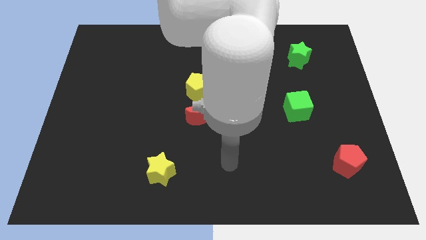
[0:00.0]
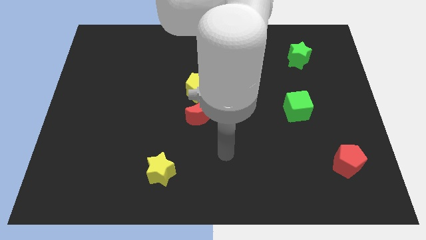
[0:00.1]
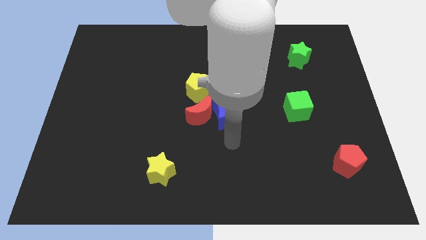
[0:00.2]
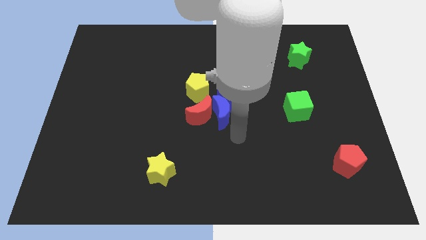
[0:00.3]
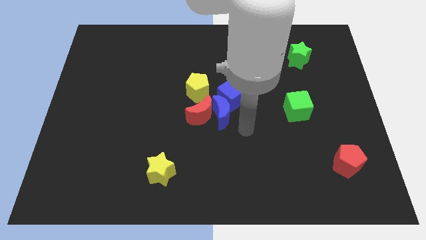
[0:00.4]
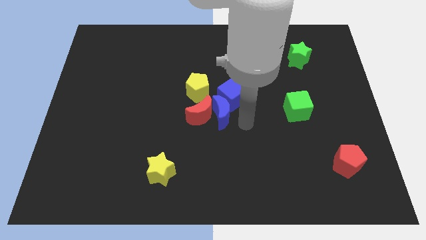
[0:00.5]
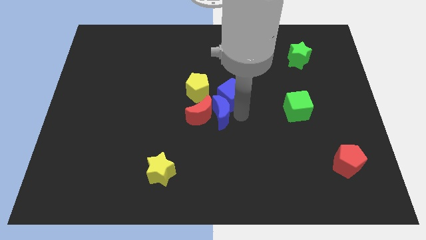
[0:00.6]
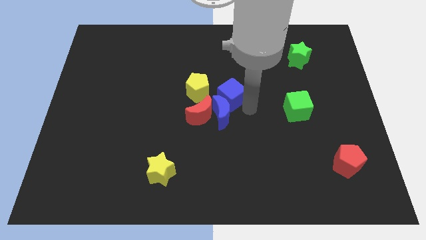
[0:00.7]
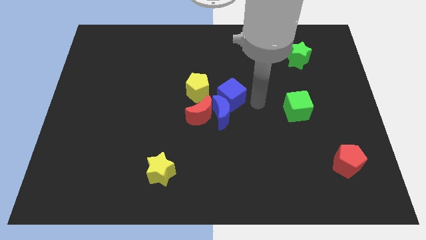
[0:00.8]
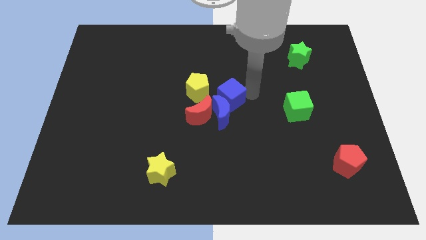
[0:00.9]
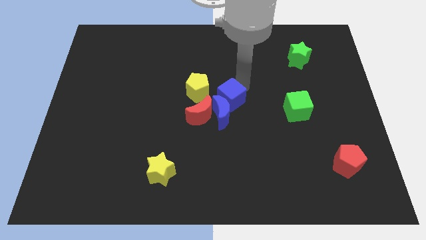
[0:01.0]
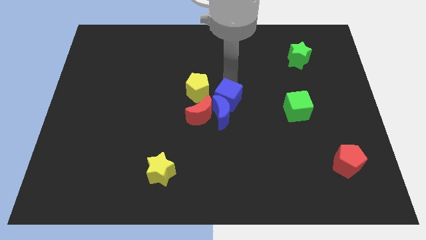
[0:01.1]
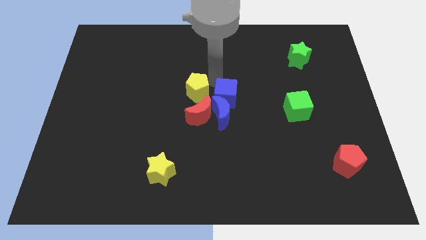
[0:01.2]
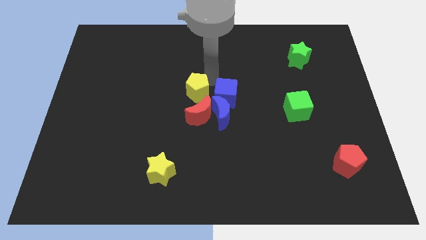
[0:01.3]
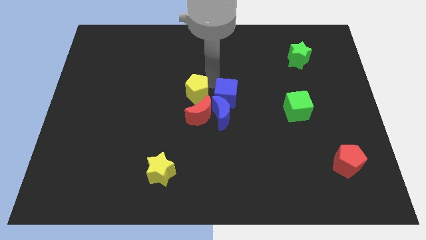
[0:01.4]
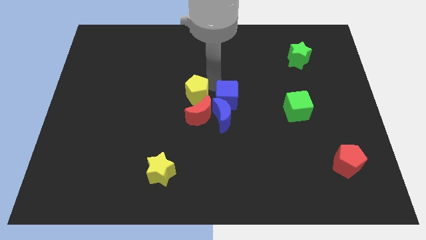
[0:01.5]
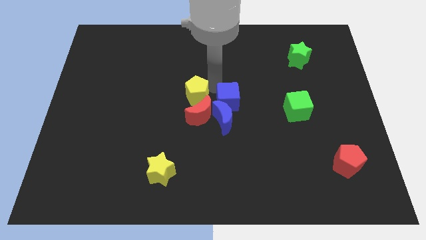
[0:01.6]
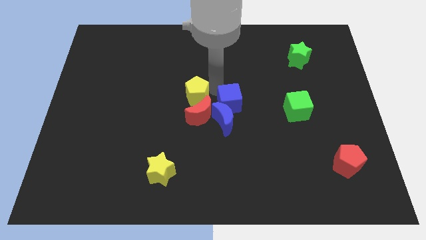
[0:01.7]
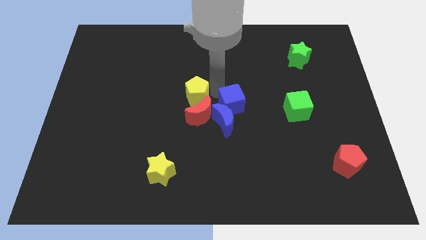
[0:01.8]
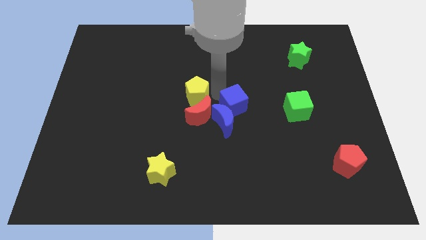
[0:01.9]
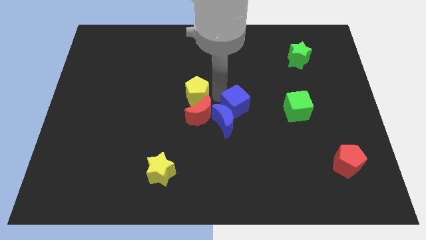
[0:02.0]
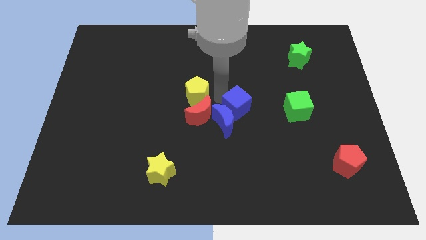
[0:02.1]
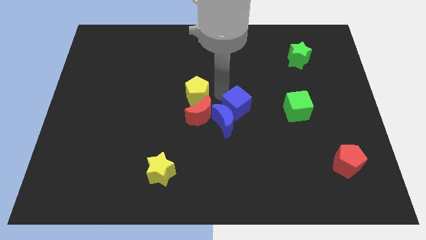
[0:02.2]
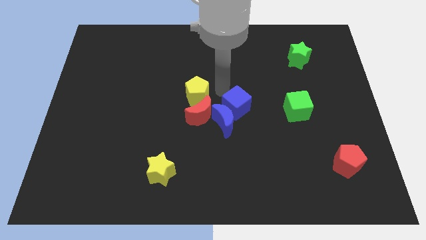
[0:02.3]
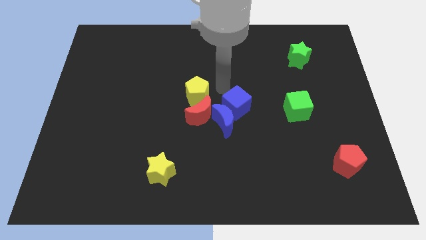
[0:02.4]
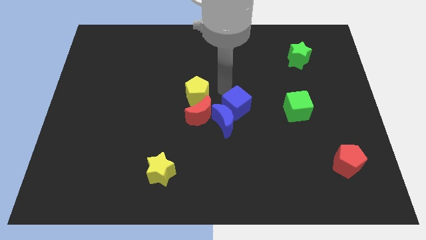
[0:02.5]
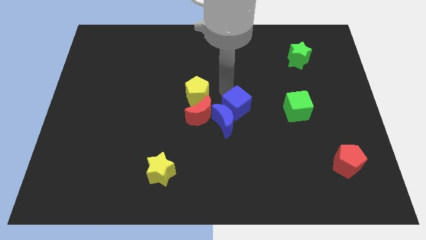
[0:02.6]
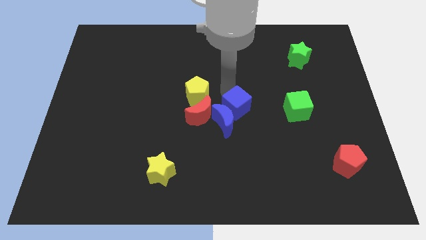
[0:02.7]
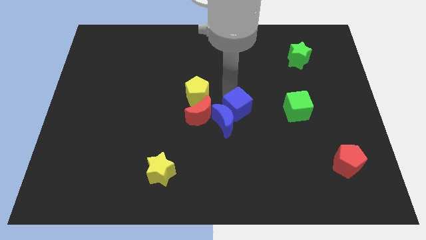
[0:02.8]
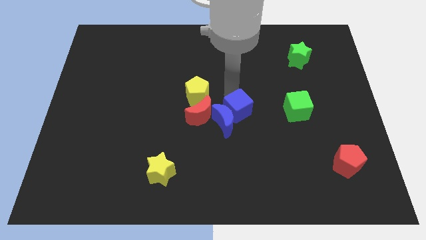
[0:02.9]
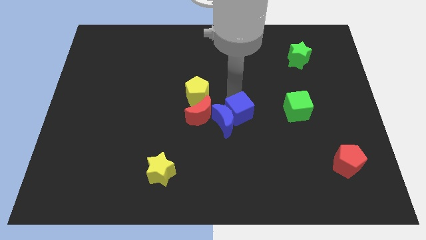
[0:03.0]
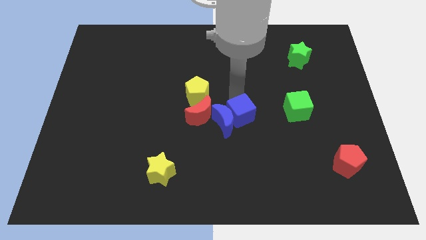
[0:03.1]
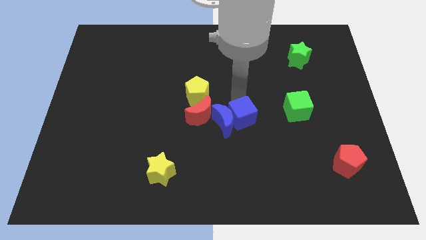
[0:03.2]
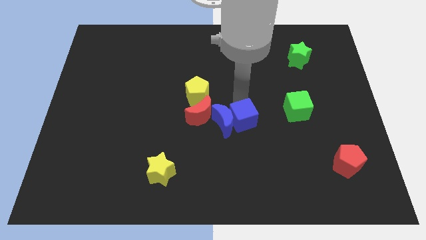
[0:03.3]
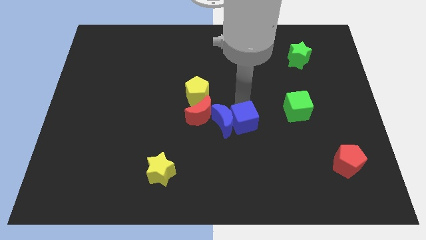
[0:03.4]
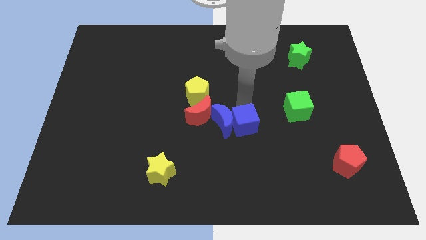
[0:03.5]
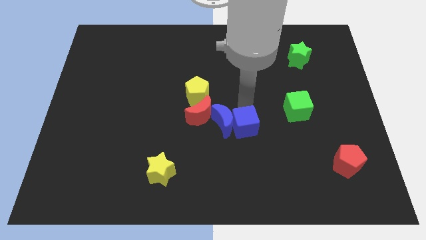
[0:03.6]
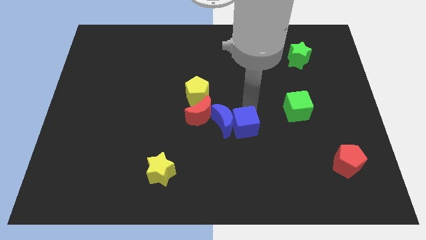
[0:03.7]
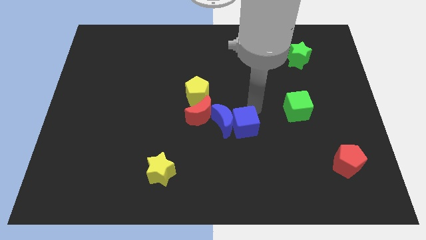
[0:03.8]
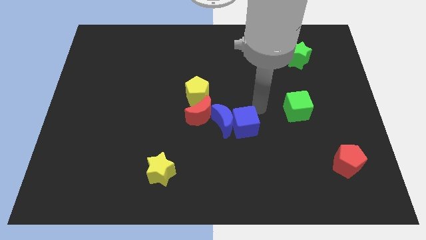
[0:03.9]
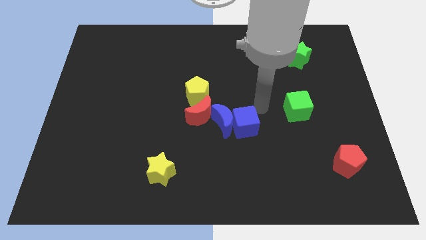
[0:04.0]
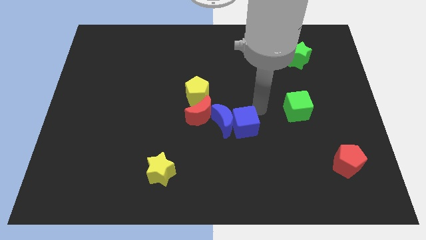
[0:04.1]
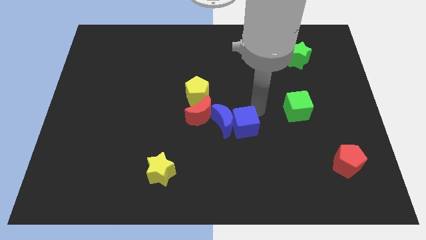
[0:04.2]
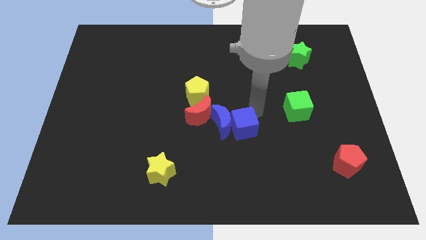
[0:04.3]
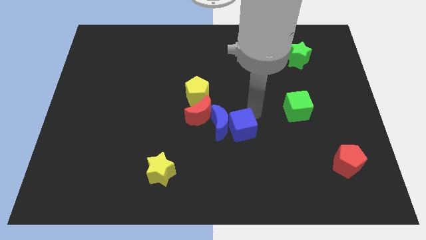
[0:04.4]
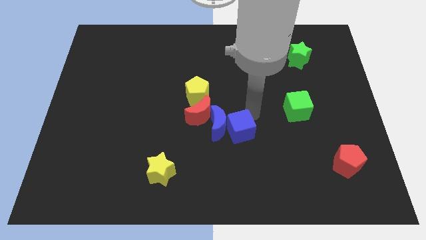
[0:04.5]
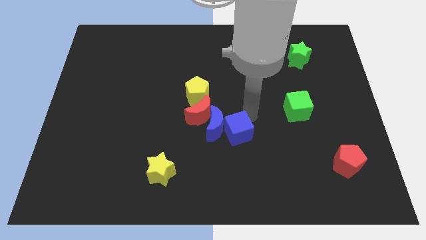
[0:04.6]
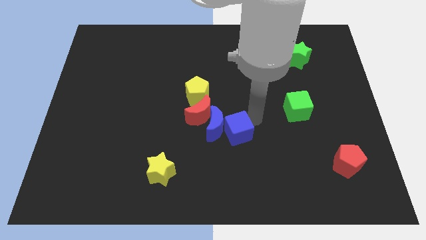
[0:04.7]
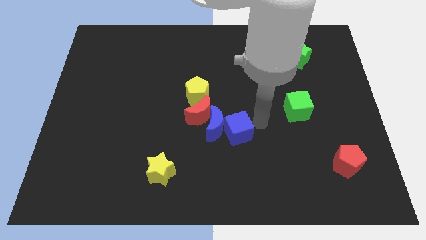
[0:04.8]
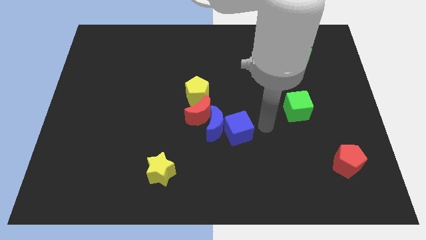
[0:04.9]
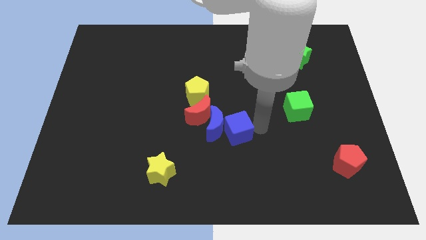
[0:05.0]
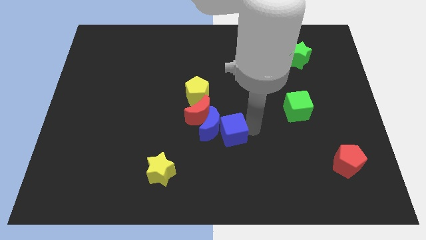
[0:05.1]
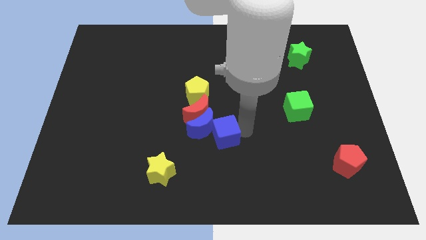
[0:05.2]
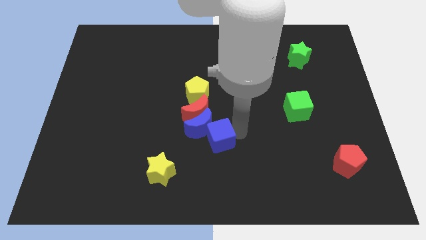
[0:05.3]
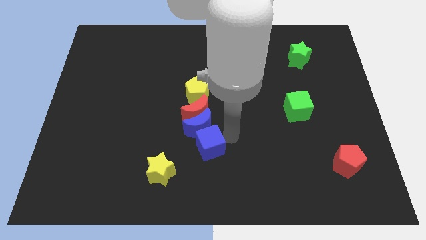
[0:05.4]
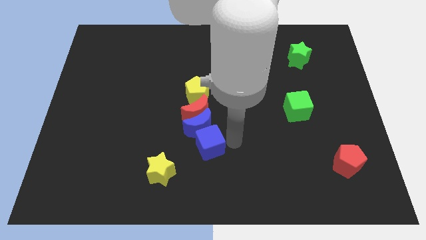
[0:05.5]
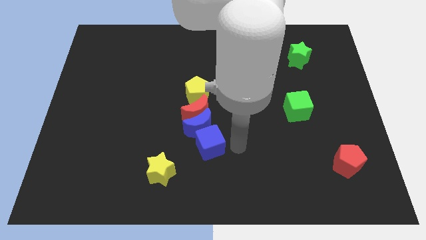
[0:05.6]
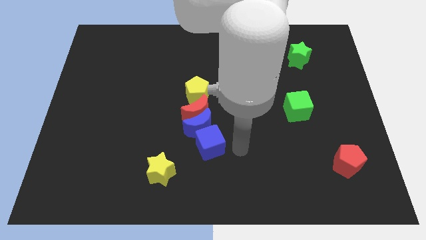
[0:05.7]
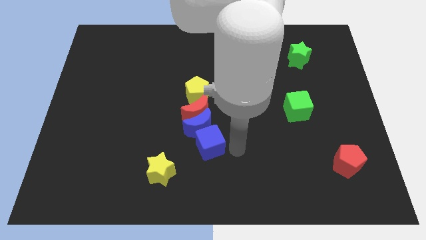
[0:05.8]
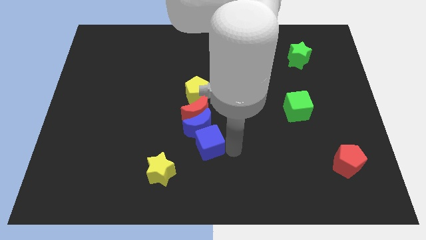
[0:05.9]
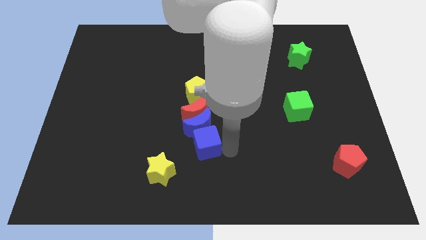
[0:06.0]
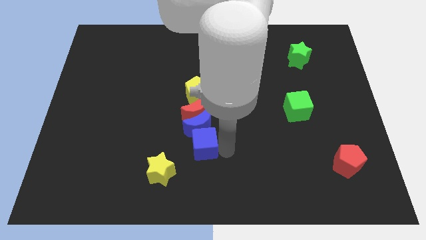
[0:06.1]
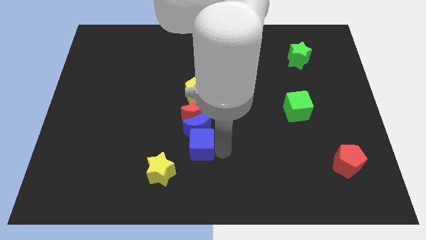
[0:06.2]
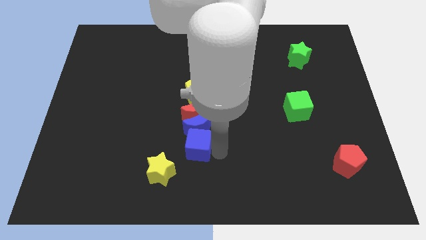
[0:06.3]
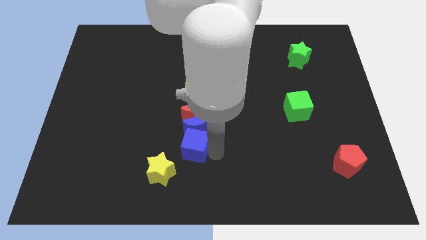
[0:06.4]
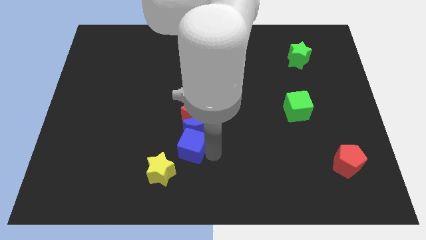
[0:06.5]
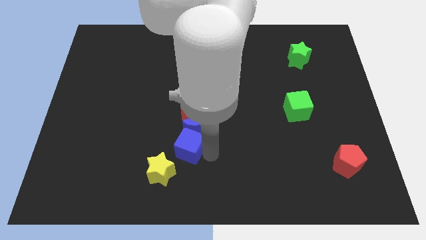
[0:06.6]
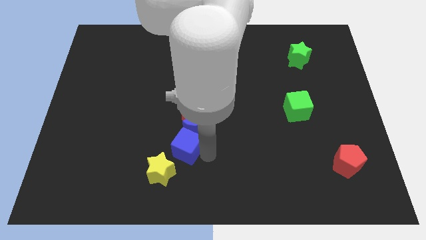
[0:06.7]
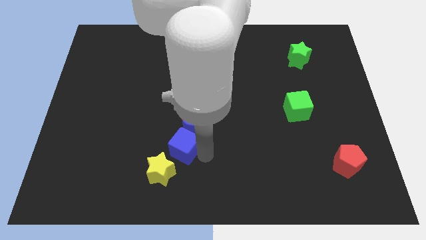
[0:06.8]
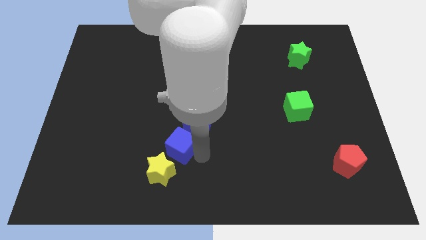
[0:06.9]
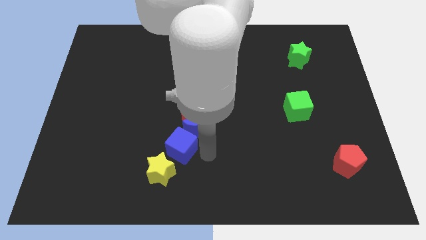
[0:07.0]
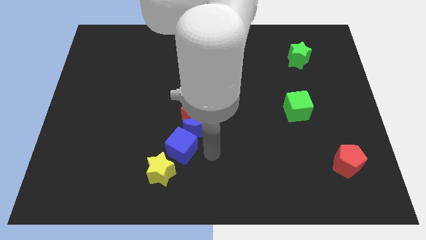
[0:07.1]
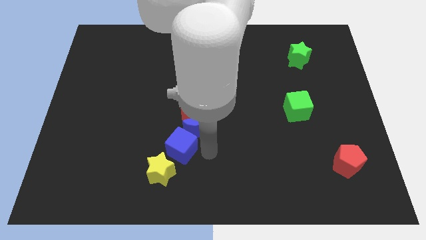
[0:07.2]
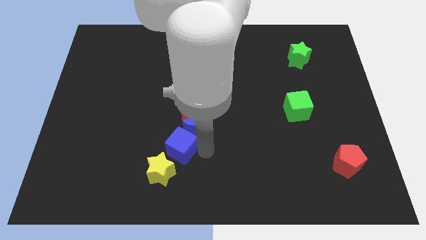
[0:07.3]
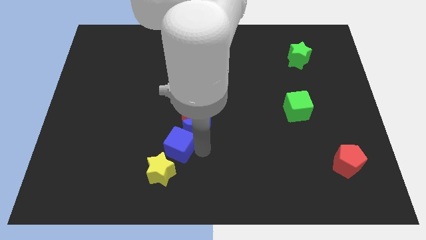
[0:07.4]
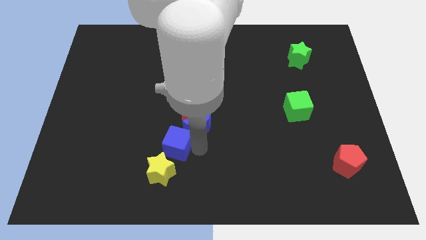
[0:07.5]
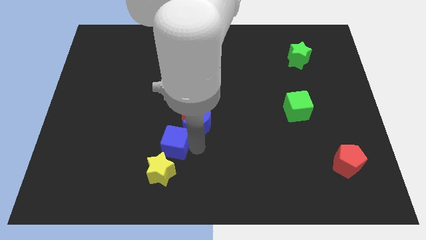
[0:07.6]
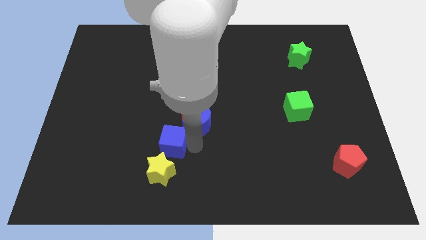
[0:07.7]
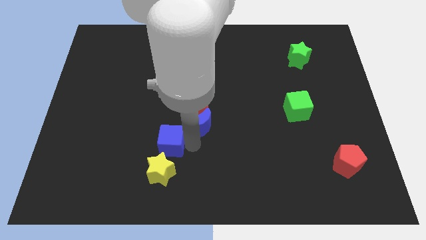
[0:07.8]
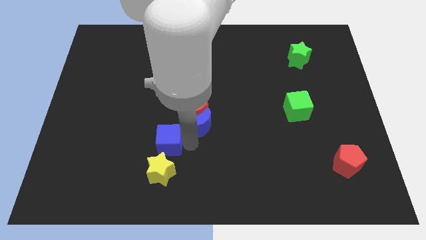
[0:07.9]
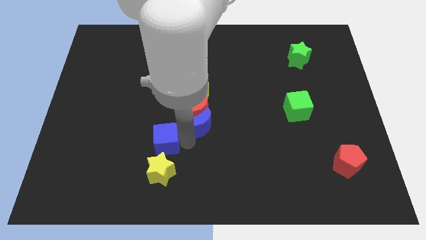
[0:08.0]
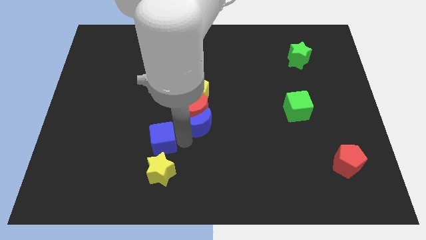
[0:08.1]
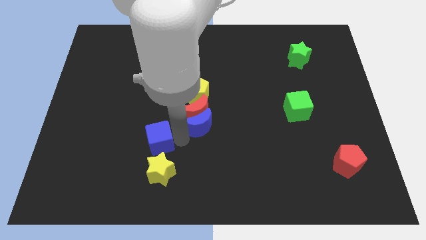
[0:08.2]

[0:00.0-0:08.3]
put the blue cube to the top left side of the yellow star
